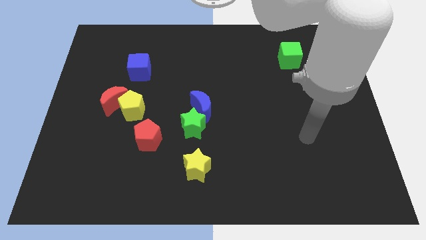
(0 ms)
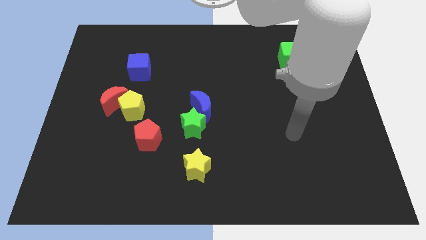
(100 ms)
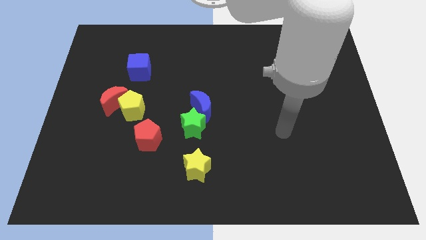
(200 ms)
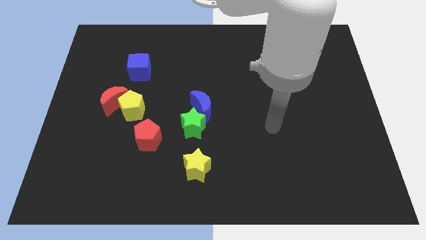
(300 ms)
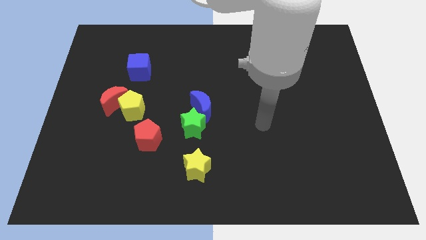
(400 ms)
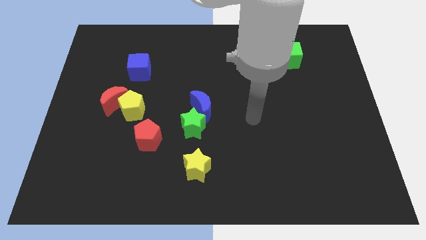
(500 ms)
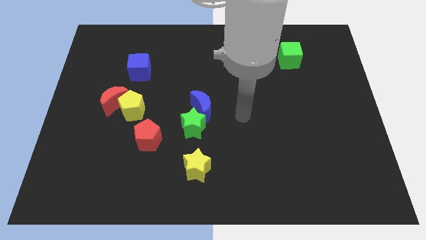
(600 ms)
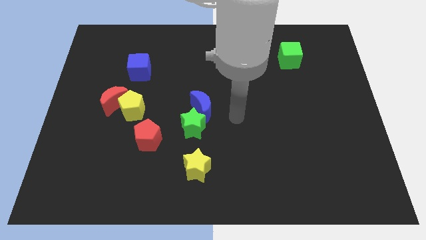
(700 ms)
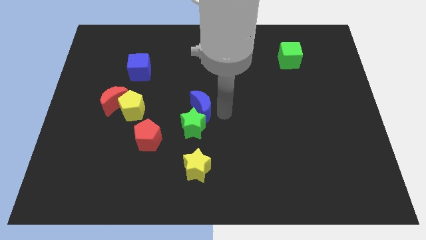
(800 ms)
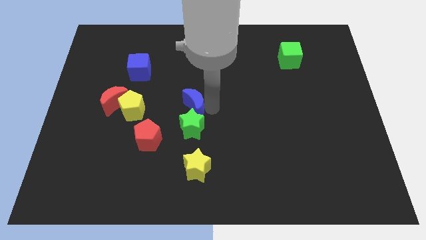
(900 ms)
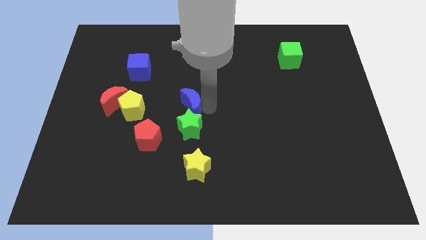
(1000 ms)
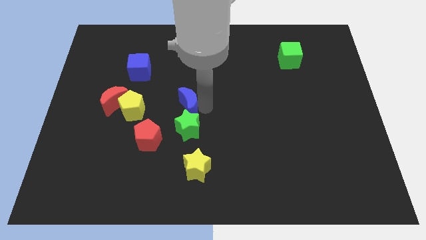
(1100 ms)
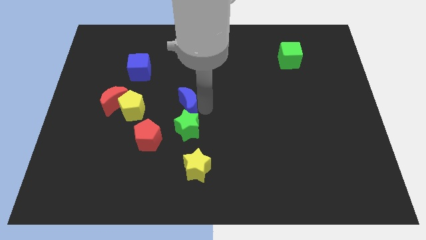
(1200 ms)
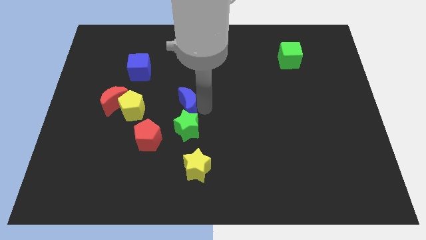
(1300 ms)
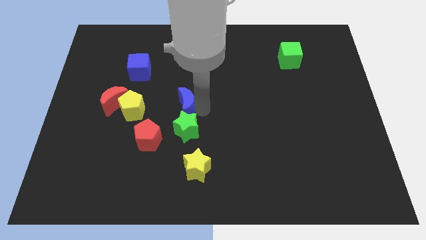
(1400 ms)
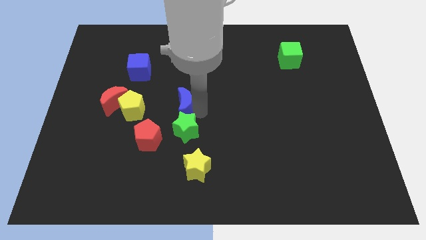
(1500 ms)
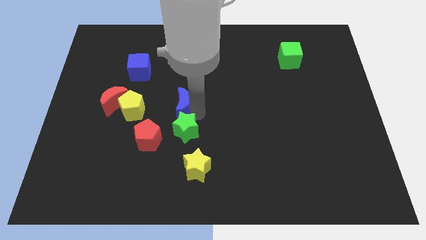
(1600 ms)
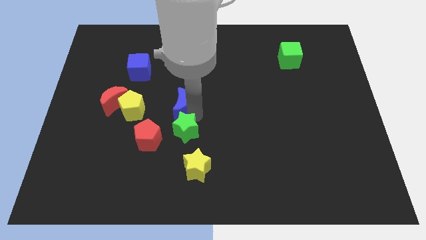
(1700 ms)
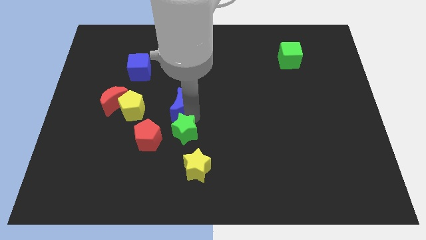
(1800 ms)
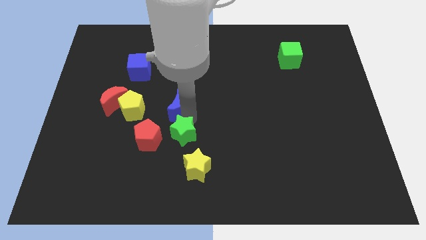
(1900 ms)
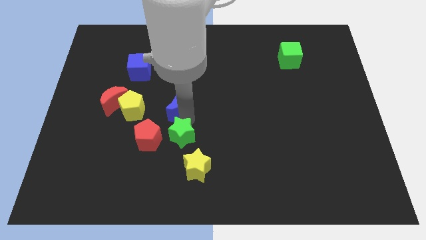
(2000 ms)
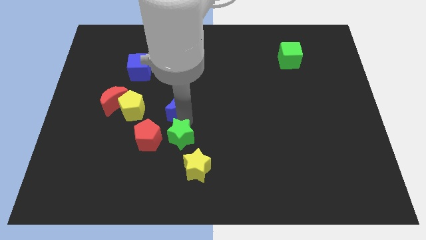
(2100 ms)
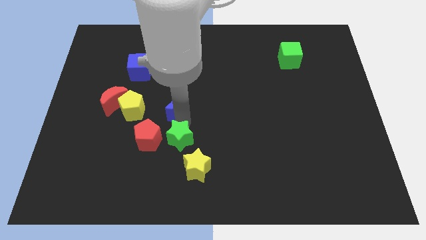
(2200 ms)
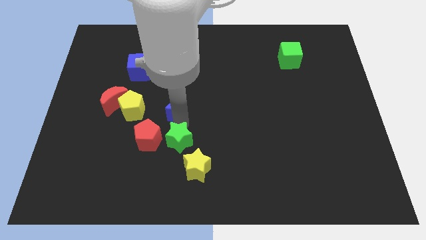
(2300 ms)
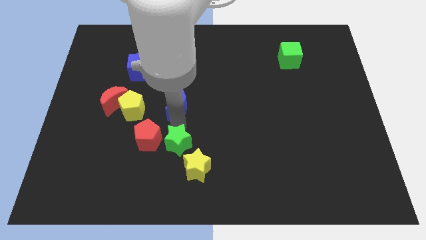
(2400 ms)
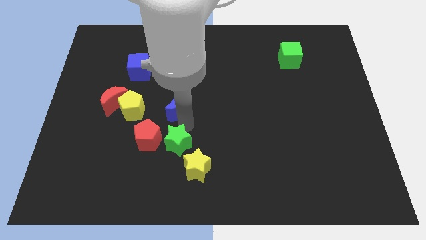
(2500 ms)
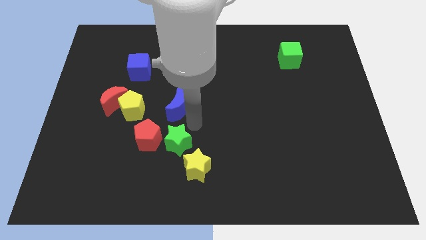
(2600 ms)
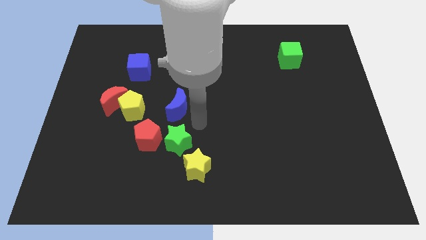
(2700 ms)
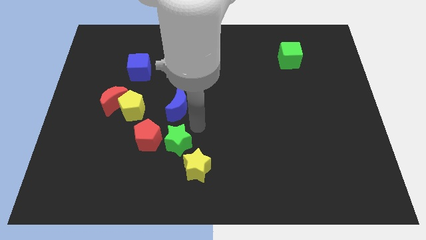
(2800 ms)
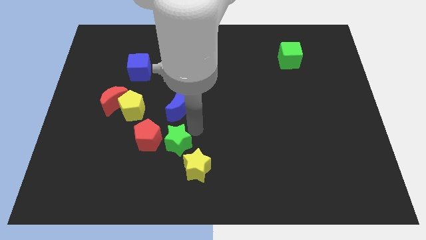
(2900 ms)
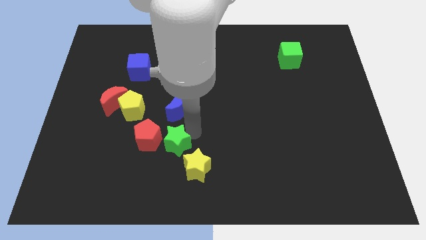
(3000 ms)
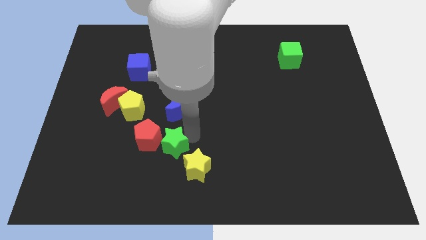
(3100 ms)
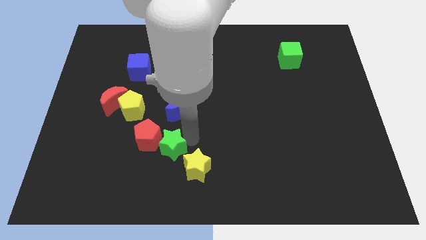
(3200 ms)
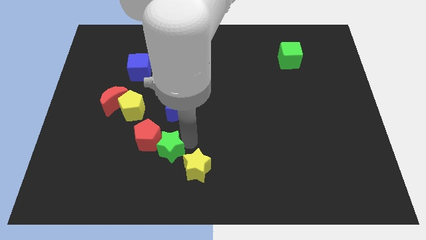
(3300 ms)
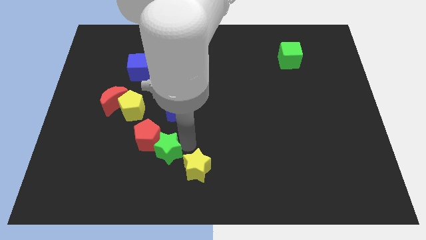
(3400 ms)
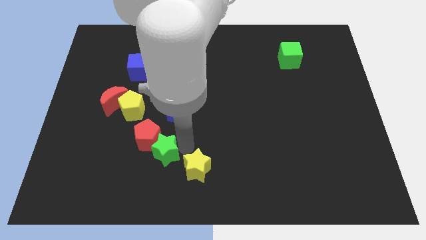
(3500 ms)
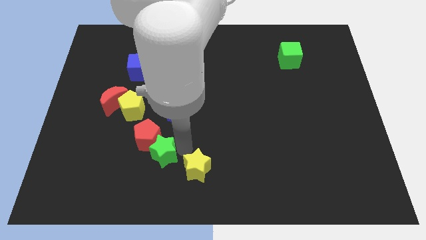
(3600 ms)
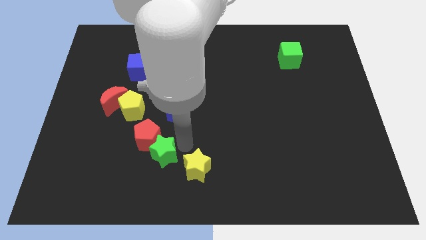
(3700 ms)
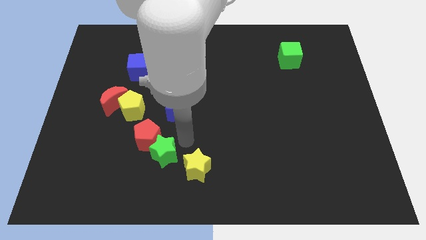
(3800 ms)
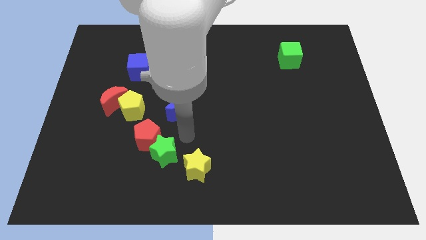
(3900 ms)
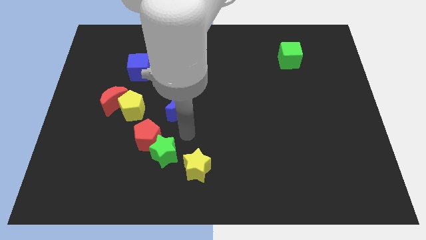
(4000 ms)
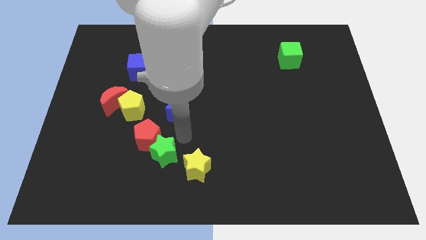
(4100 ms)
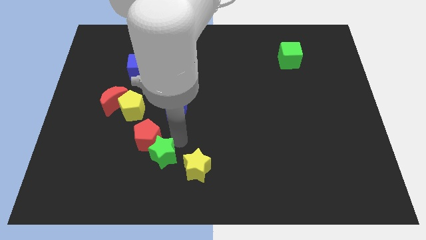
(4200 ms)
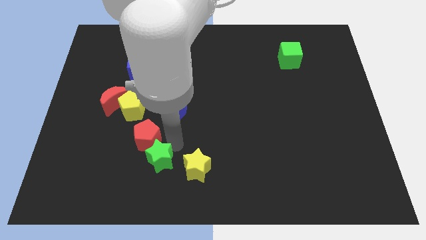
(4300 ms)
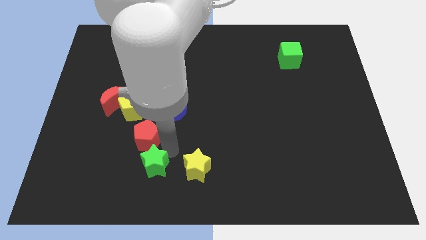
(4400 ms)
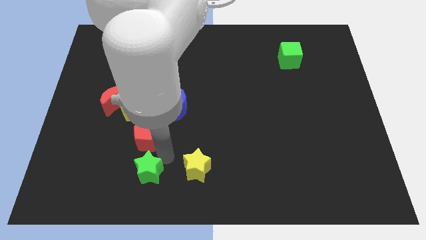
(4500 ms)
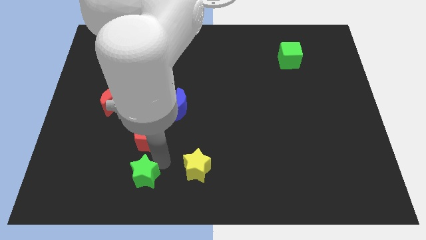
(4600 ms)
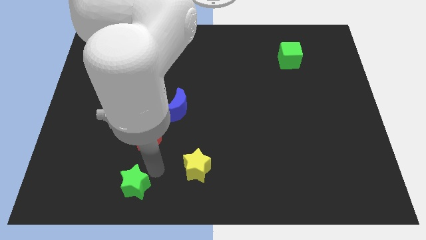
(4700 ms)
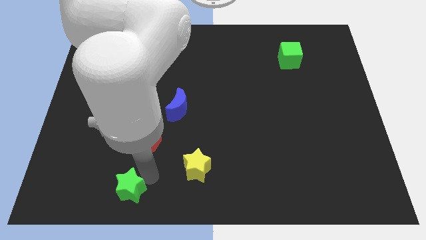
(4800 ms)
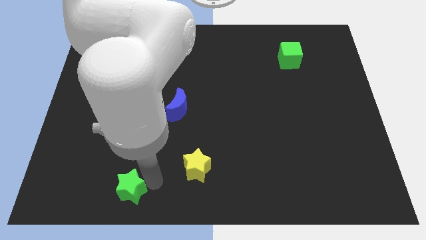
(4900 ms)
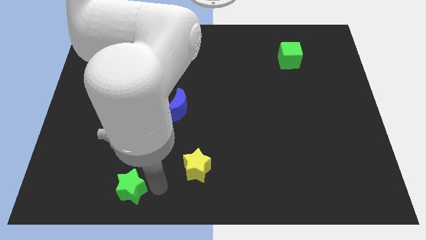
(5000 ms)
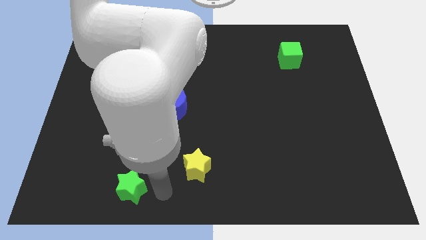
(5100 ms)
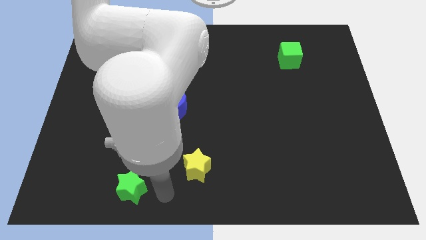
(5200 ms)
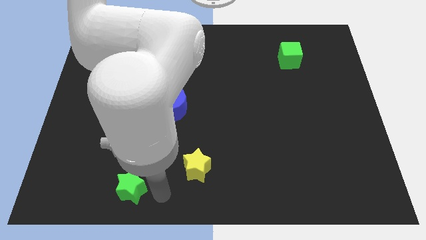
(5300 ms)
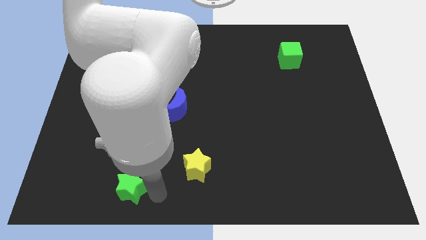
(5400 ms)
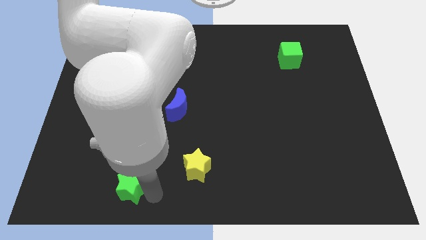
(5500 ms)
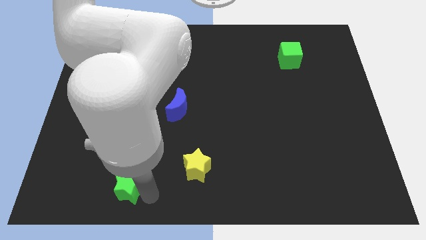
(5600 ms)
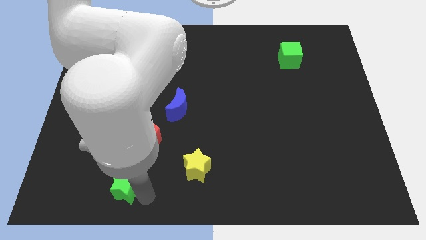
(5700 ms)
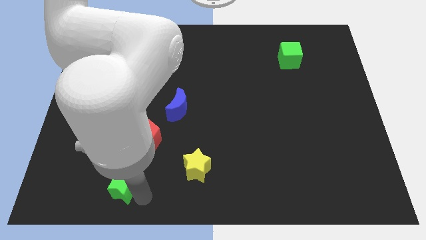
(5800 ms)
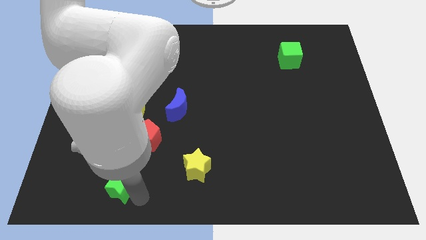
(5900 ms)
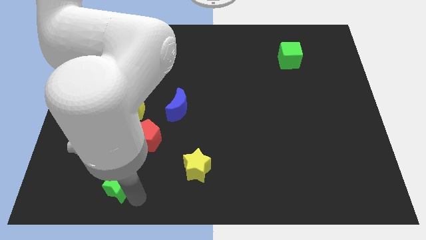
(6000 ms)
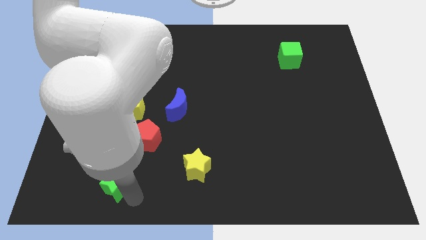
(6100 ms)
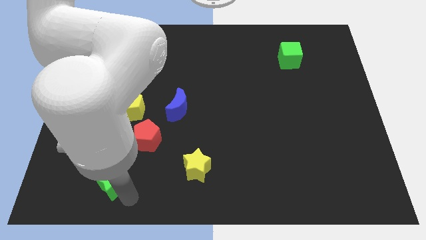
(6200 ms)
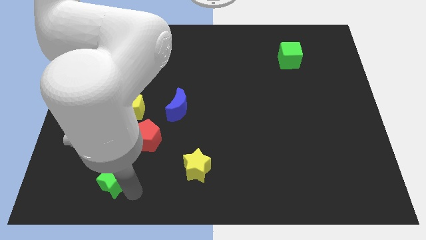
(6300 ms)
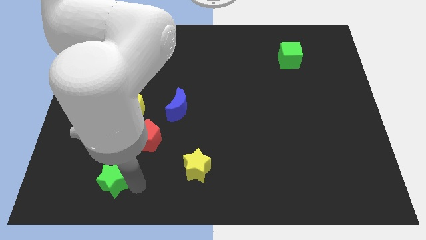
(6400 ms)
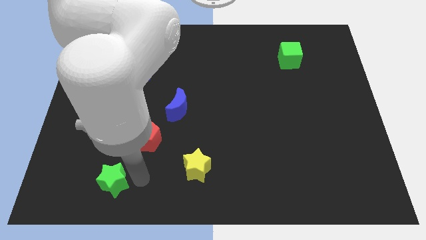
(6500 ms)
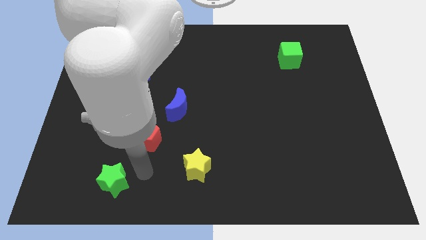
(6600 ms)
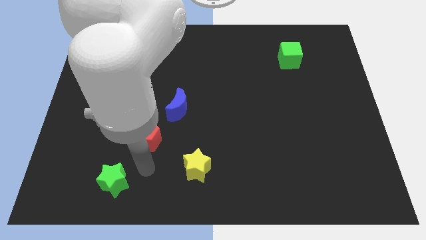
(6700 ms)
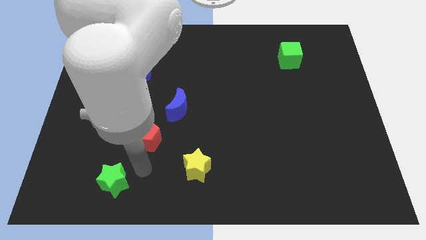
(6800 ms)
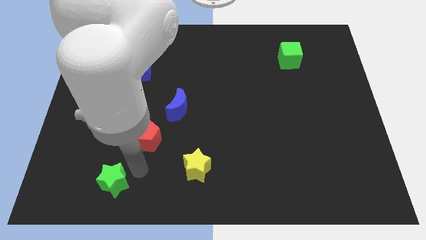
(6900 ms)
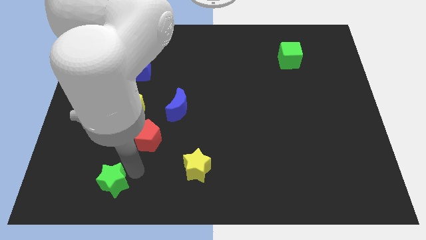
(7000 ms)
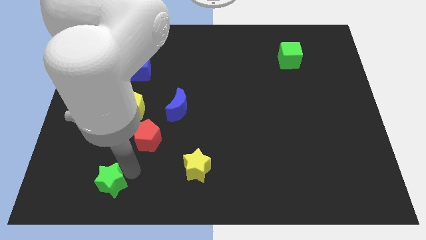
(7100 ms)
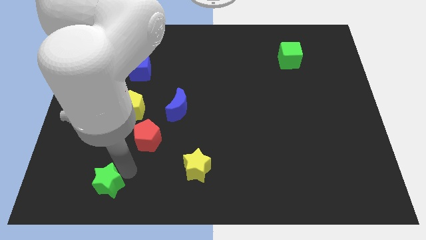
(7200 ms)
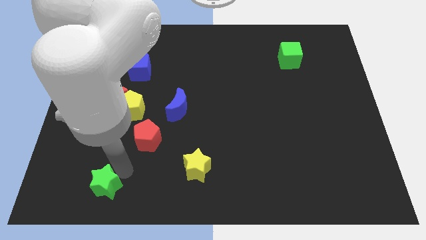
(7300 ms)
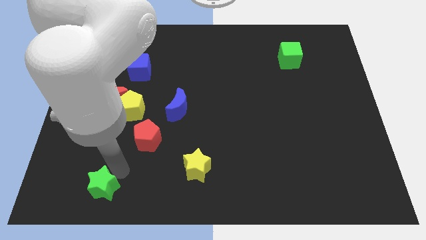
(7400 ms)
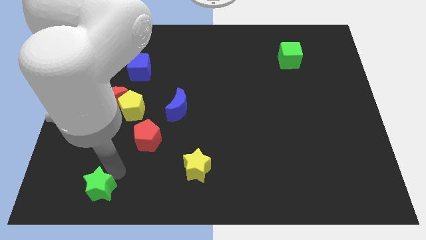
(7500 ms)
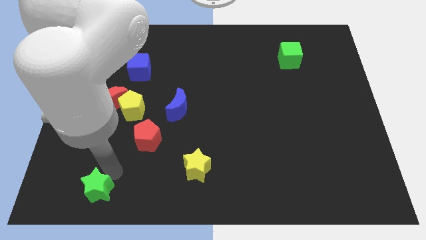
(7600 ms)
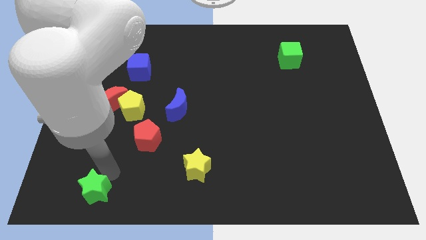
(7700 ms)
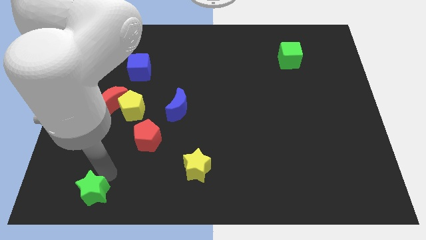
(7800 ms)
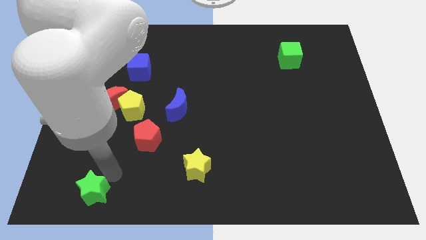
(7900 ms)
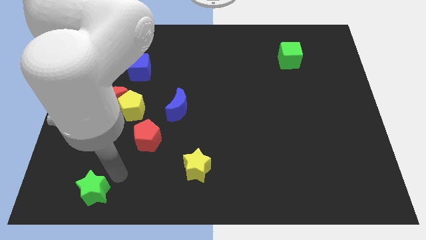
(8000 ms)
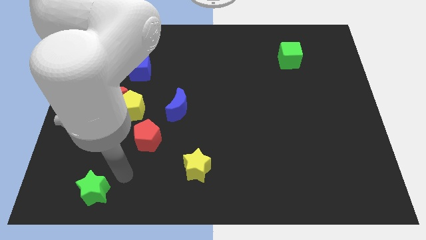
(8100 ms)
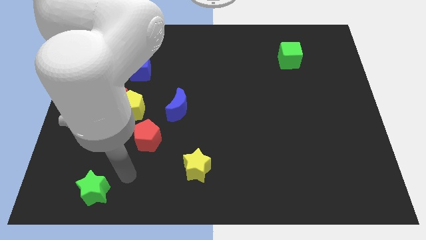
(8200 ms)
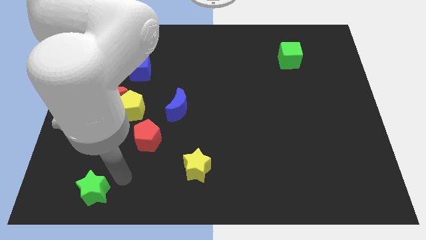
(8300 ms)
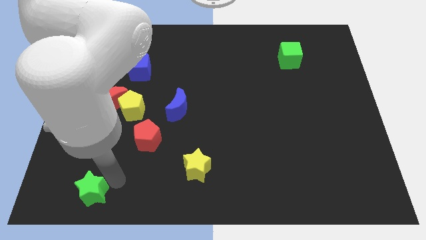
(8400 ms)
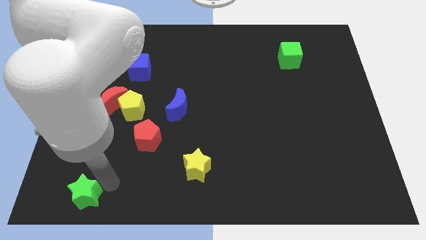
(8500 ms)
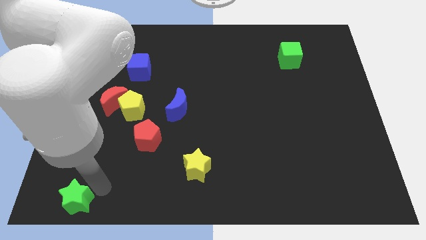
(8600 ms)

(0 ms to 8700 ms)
slide the green star to the lower left corner
